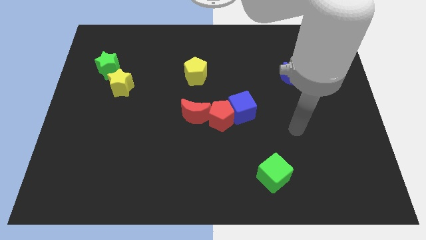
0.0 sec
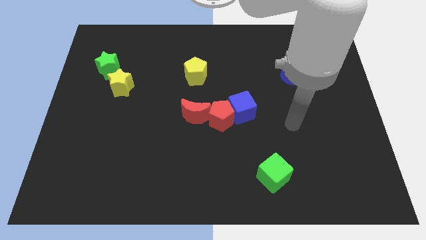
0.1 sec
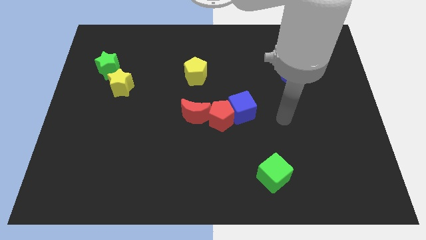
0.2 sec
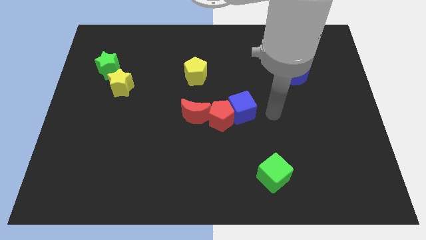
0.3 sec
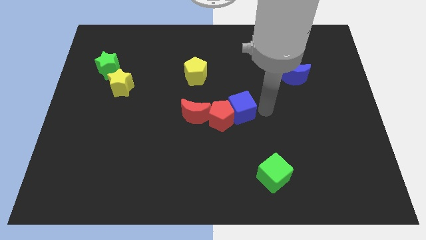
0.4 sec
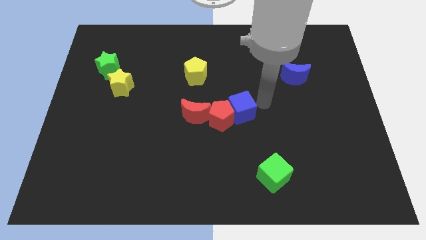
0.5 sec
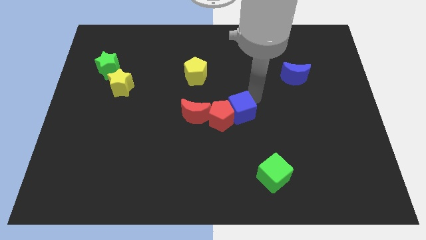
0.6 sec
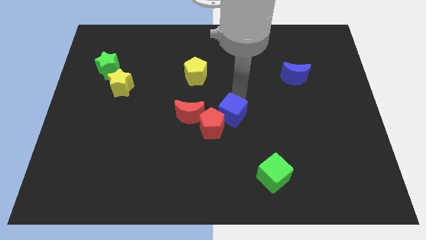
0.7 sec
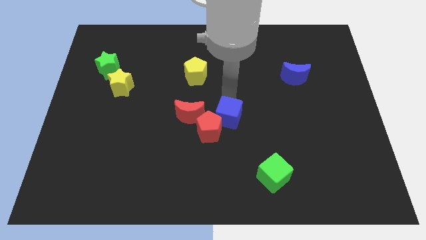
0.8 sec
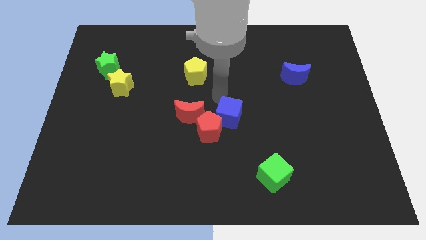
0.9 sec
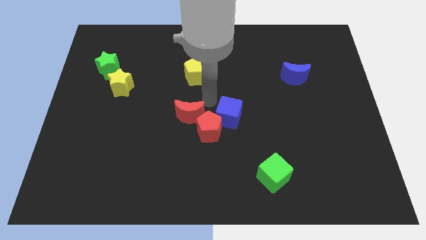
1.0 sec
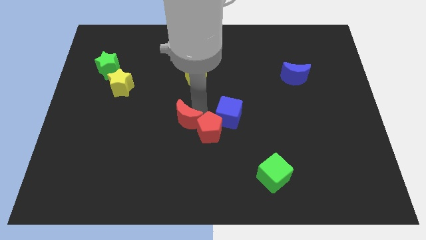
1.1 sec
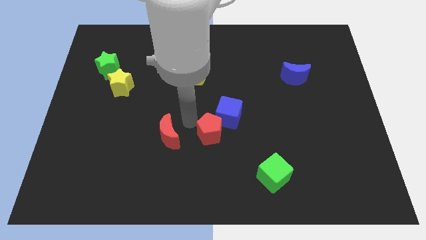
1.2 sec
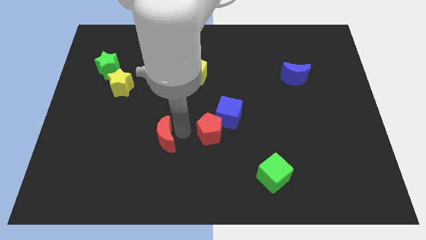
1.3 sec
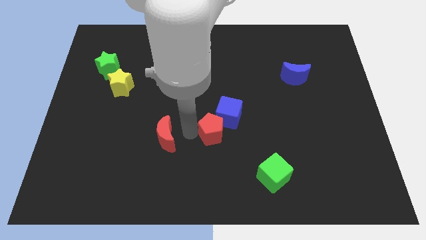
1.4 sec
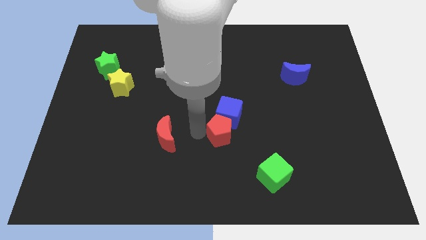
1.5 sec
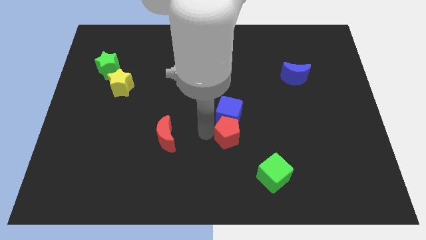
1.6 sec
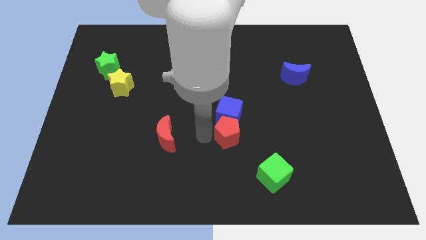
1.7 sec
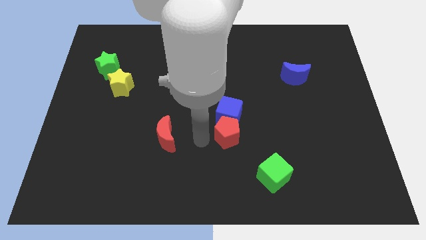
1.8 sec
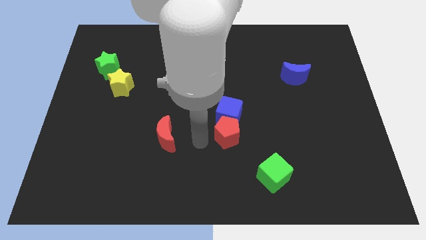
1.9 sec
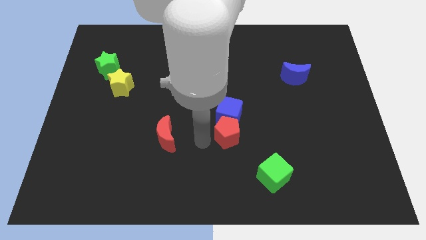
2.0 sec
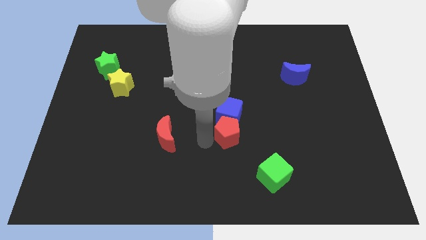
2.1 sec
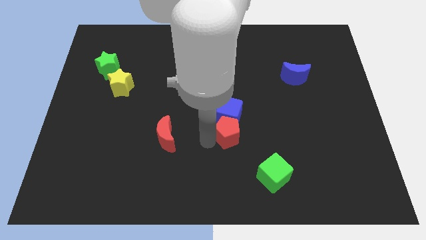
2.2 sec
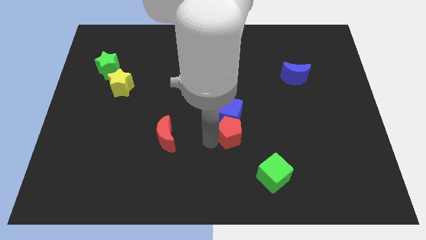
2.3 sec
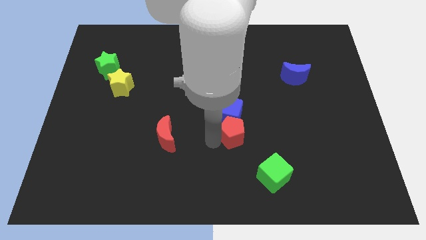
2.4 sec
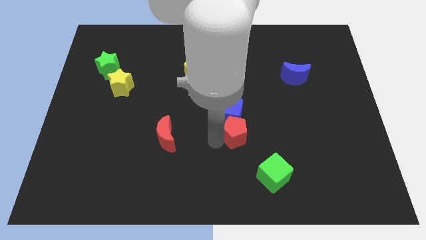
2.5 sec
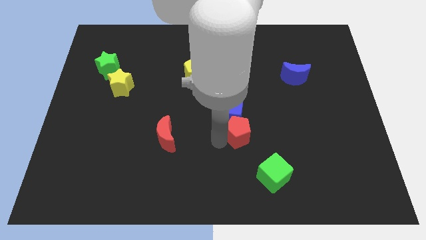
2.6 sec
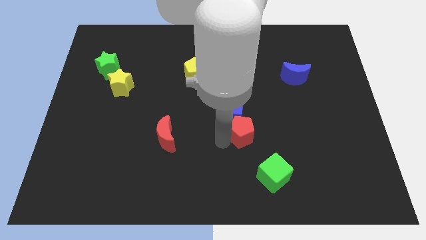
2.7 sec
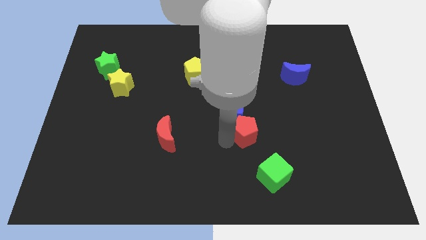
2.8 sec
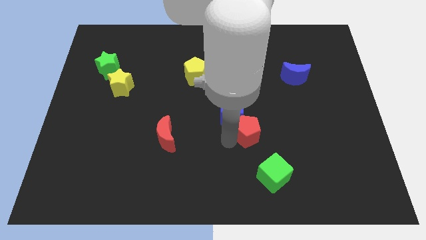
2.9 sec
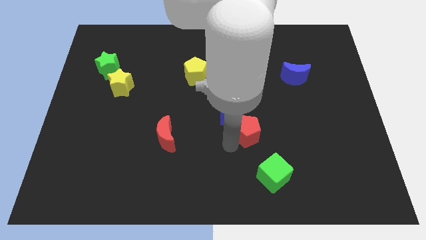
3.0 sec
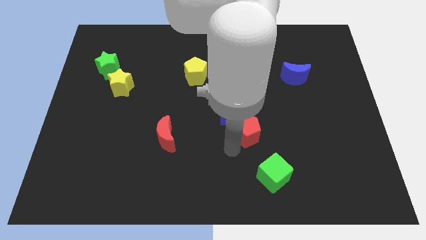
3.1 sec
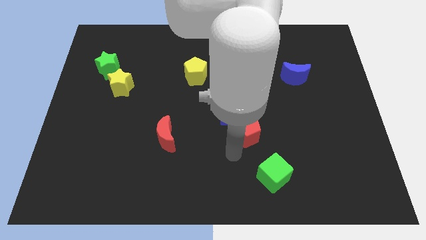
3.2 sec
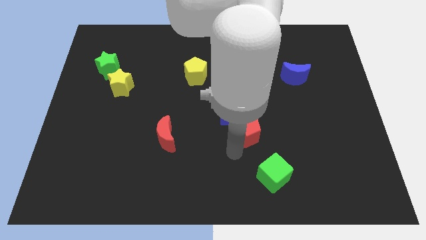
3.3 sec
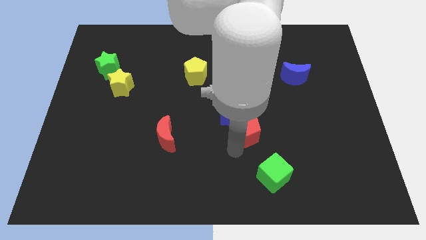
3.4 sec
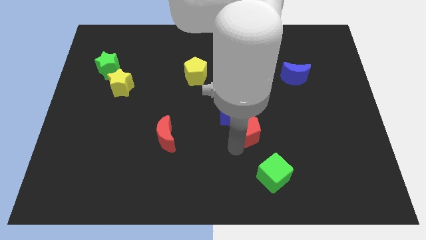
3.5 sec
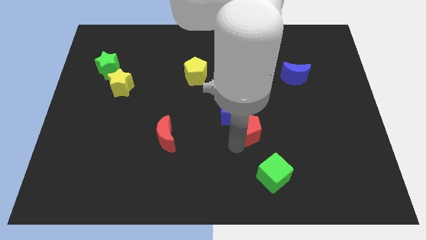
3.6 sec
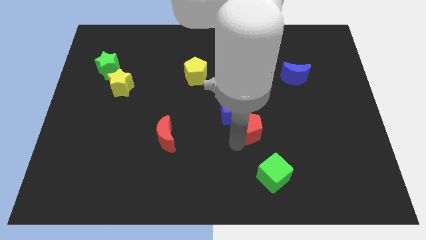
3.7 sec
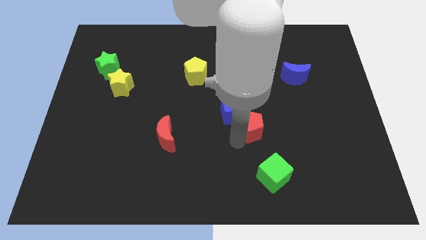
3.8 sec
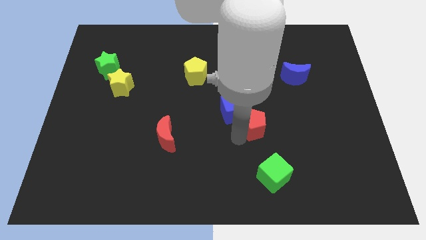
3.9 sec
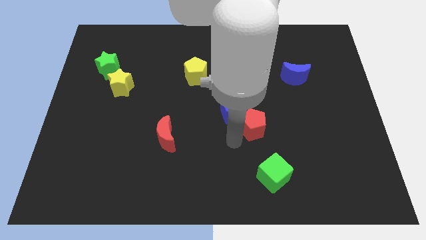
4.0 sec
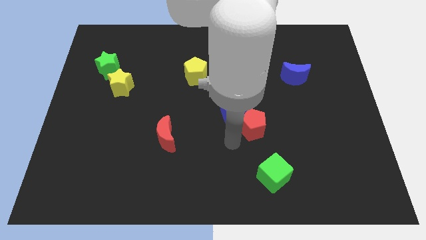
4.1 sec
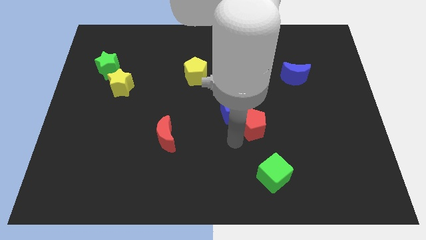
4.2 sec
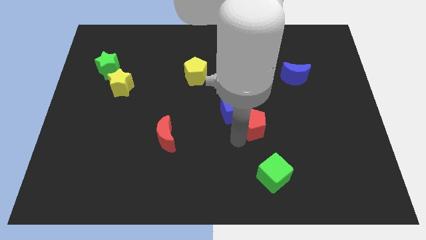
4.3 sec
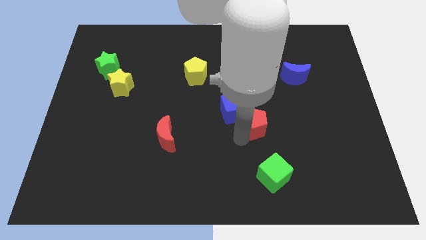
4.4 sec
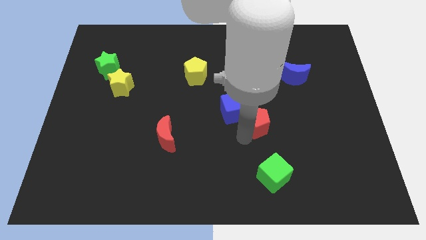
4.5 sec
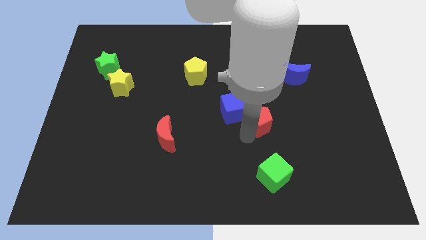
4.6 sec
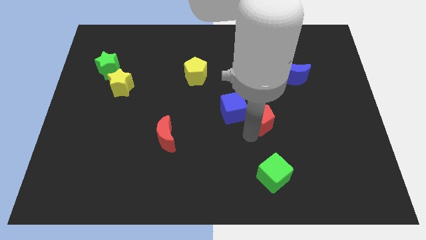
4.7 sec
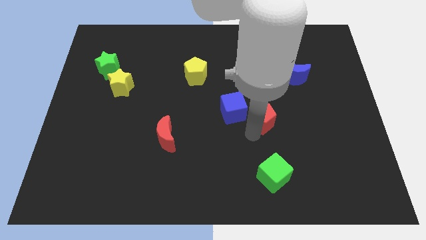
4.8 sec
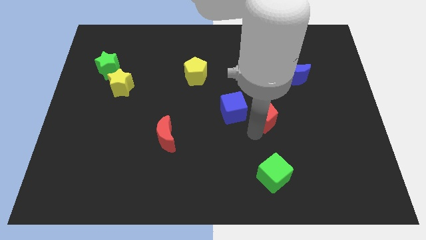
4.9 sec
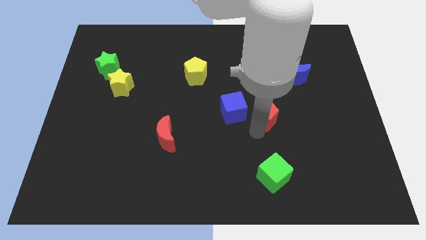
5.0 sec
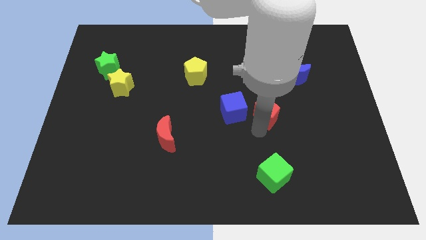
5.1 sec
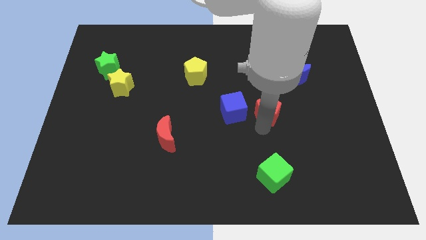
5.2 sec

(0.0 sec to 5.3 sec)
slightly move the red pentagon up and then to the right

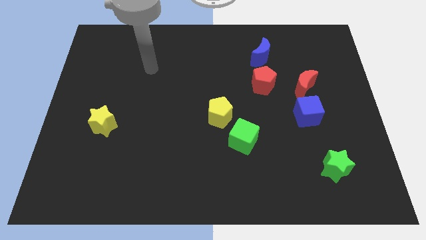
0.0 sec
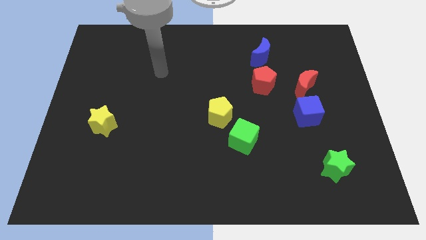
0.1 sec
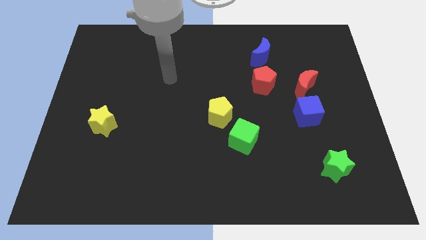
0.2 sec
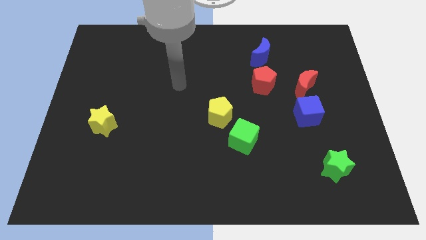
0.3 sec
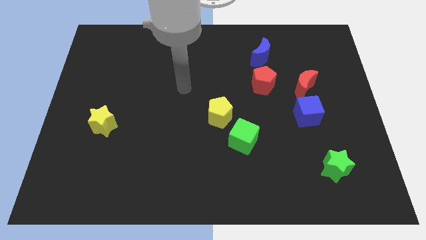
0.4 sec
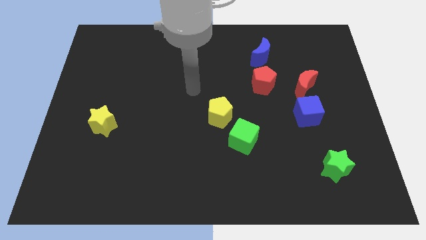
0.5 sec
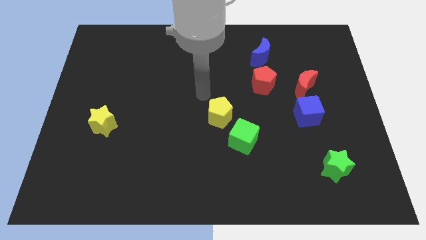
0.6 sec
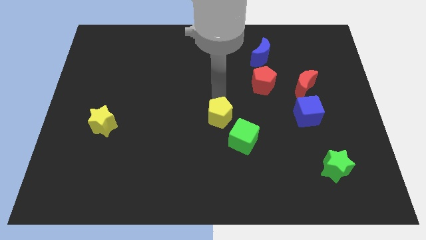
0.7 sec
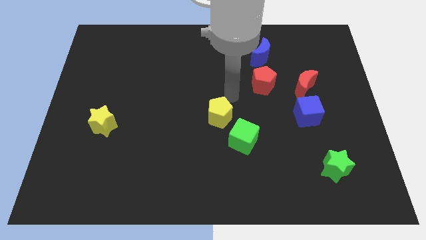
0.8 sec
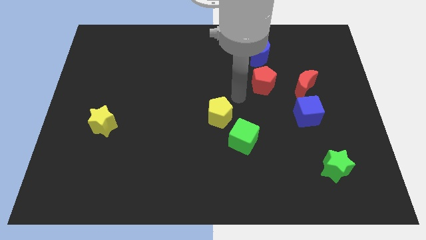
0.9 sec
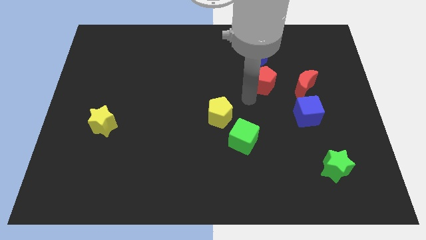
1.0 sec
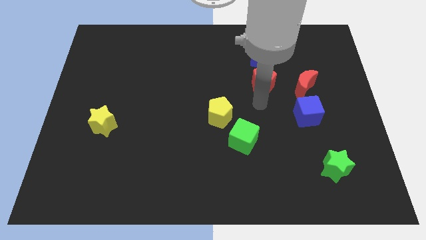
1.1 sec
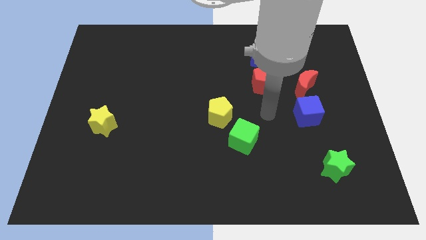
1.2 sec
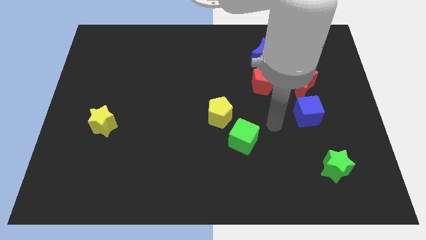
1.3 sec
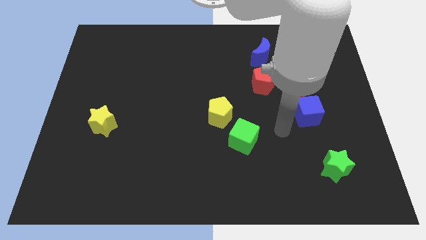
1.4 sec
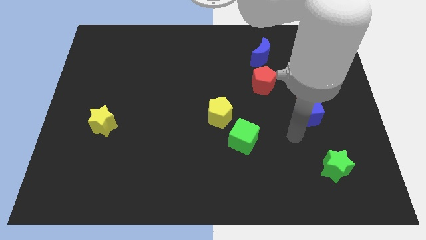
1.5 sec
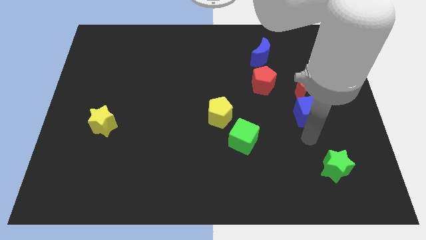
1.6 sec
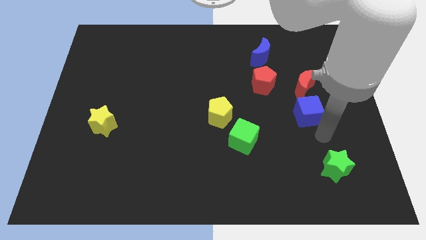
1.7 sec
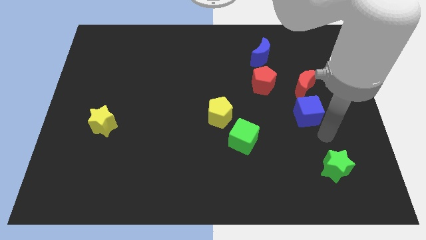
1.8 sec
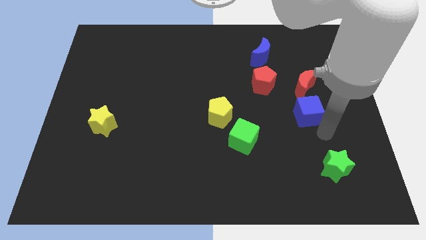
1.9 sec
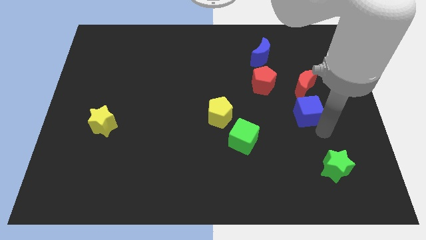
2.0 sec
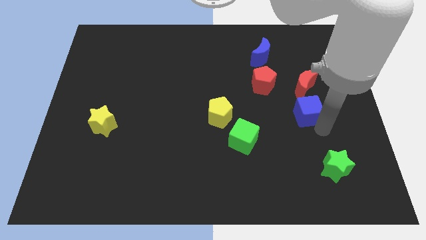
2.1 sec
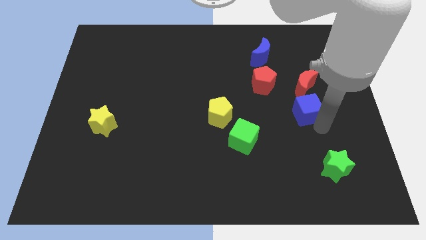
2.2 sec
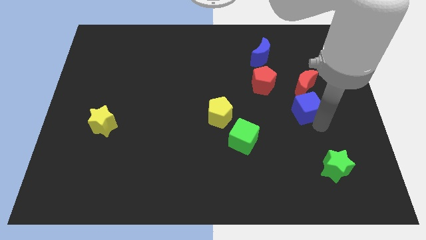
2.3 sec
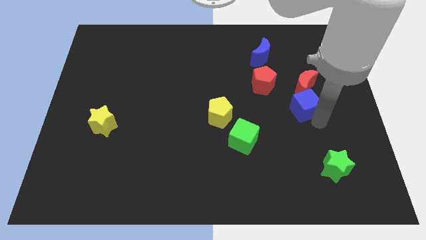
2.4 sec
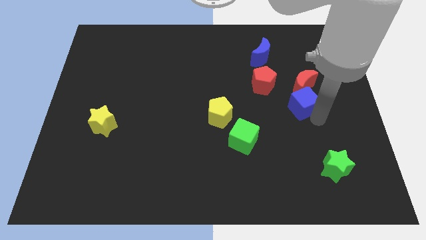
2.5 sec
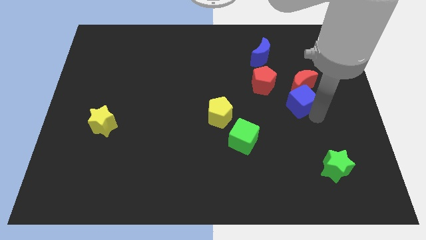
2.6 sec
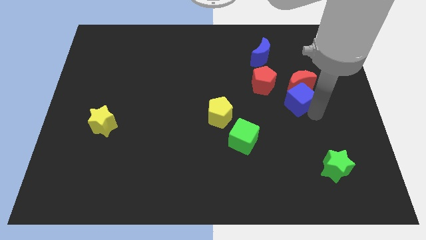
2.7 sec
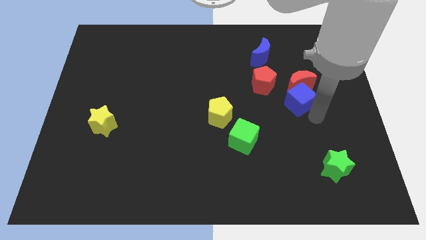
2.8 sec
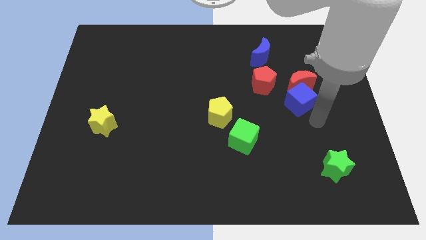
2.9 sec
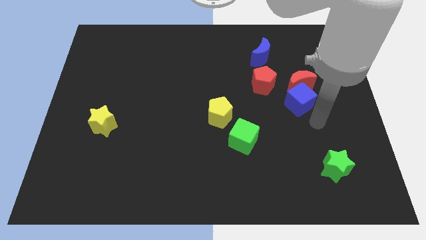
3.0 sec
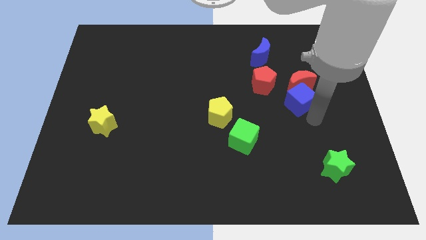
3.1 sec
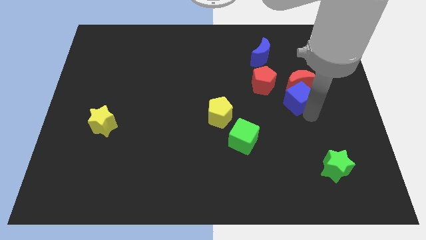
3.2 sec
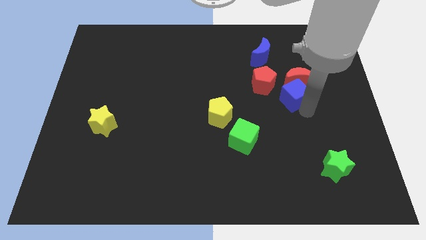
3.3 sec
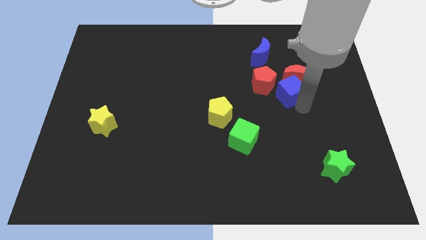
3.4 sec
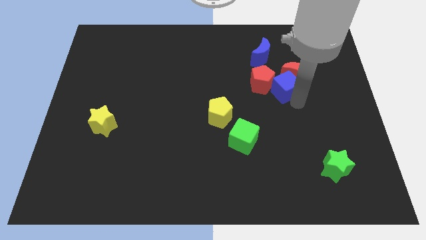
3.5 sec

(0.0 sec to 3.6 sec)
push the blue cube a little diagonally upwards and left
